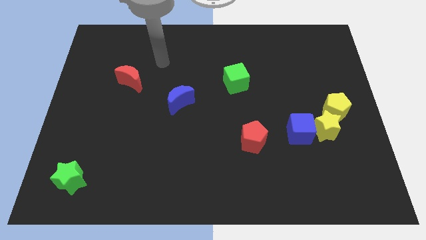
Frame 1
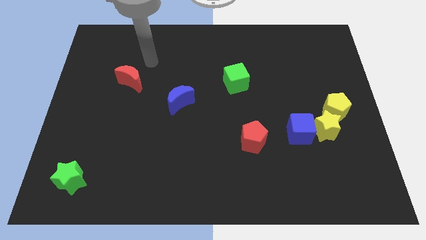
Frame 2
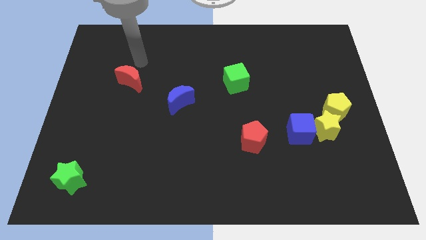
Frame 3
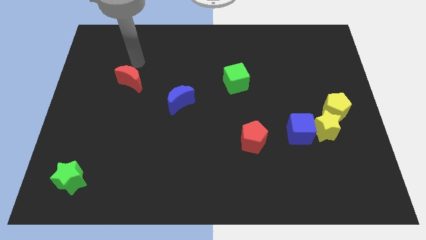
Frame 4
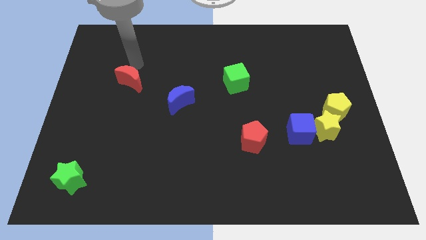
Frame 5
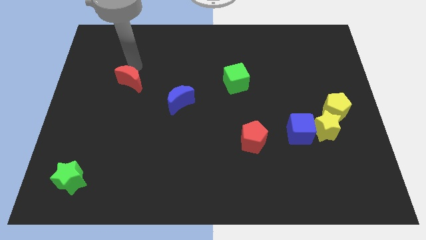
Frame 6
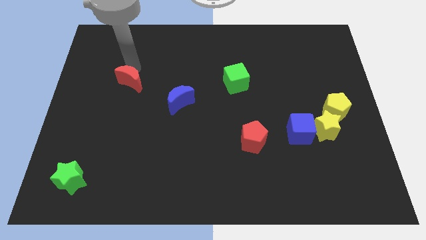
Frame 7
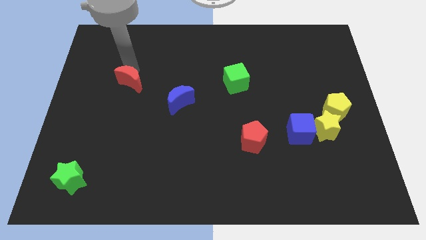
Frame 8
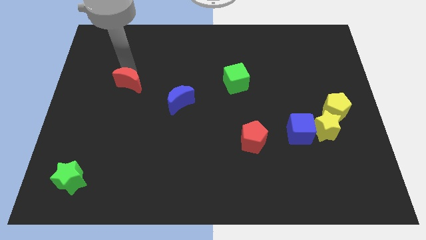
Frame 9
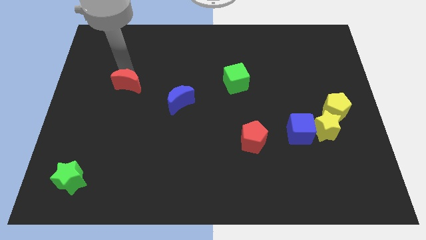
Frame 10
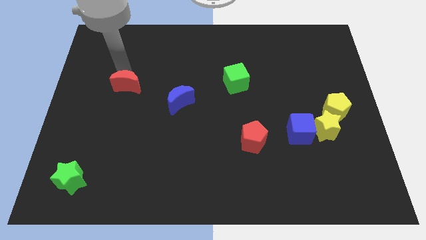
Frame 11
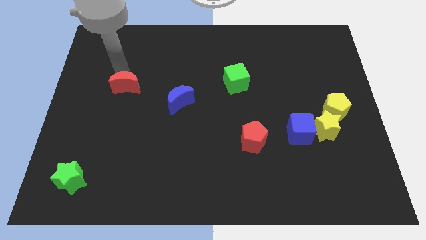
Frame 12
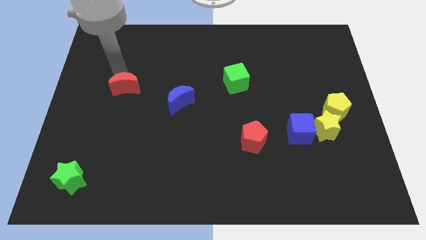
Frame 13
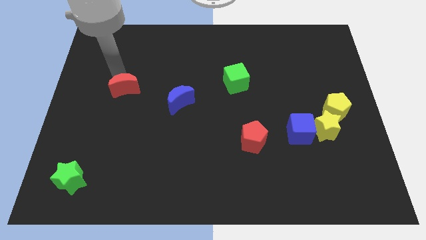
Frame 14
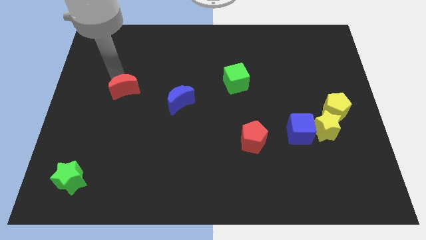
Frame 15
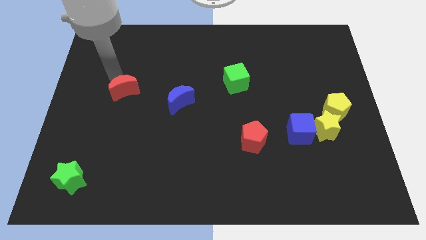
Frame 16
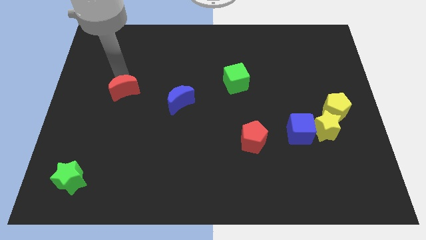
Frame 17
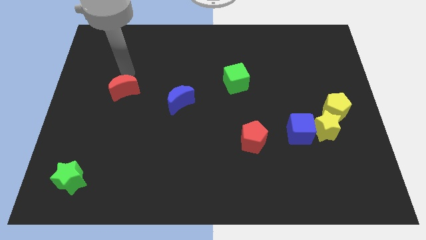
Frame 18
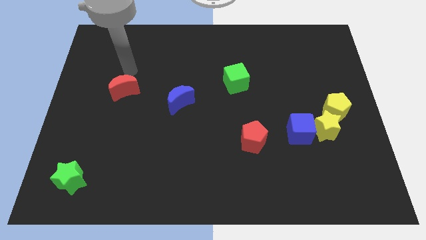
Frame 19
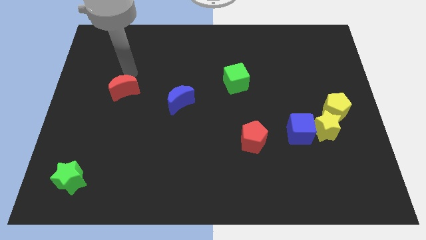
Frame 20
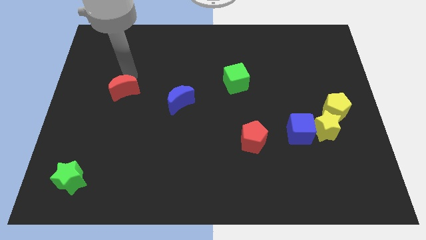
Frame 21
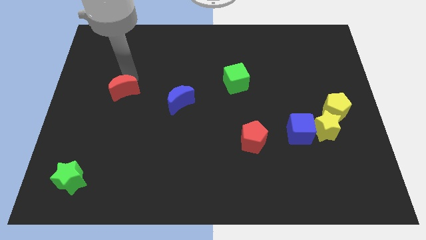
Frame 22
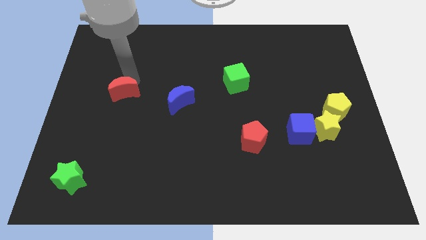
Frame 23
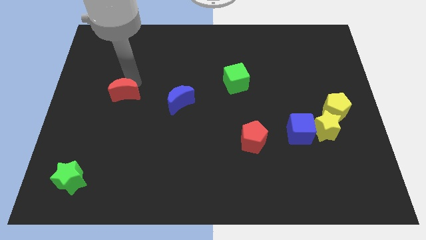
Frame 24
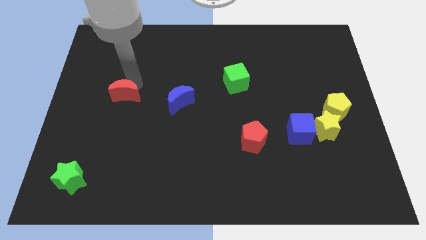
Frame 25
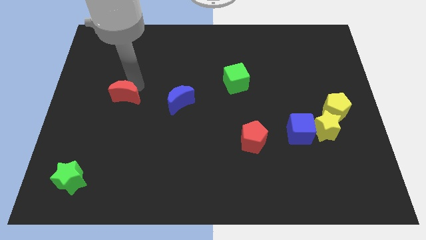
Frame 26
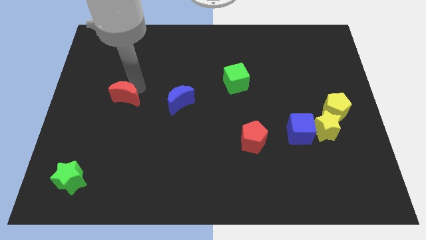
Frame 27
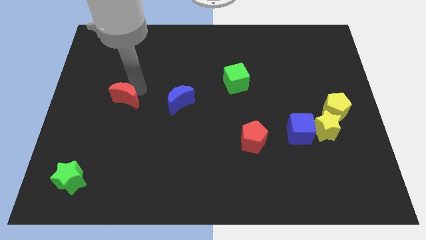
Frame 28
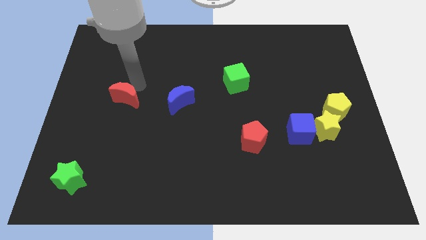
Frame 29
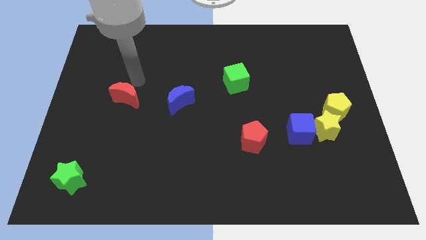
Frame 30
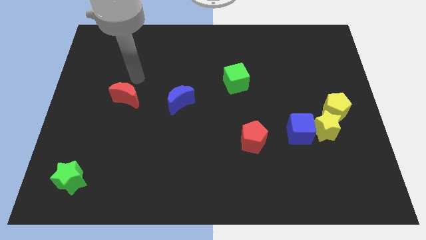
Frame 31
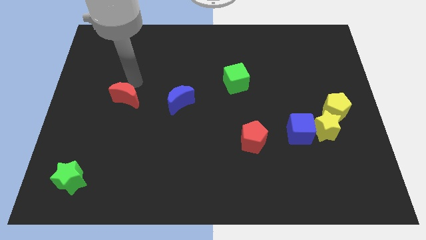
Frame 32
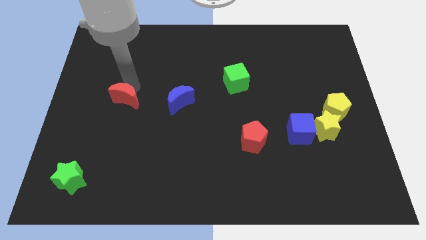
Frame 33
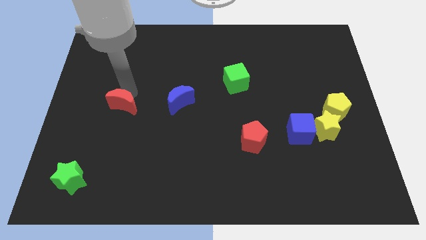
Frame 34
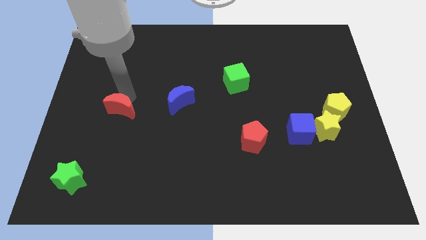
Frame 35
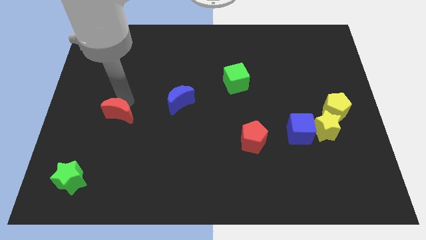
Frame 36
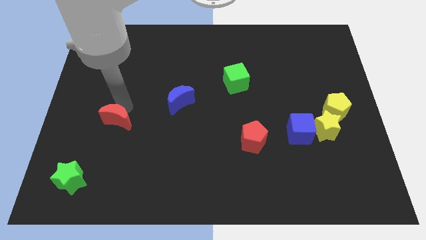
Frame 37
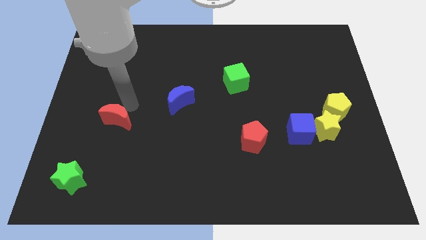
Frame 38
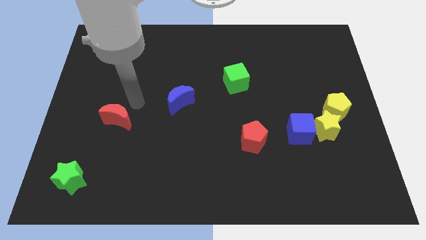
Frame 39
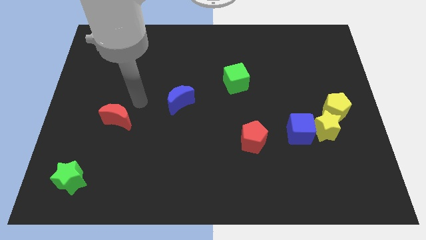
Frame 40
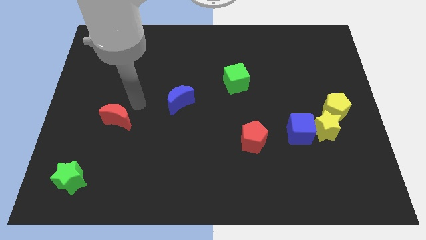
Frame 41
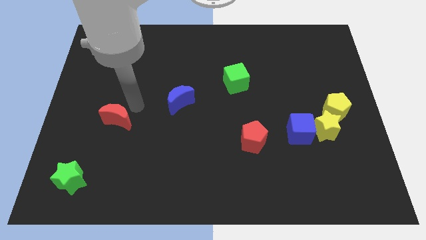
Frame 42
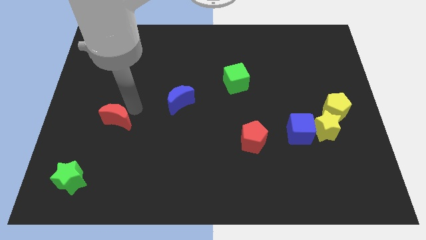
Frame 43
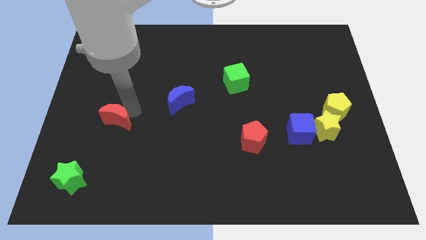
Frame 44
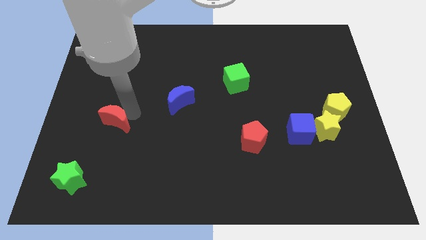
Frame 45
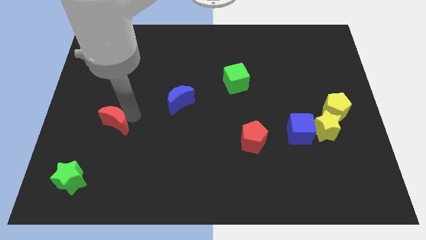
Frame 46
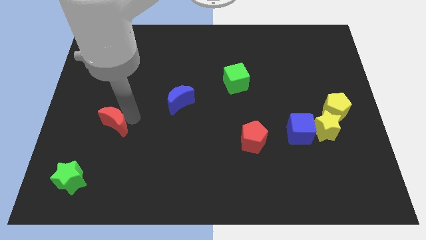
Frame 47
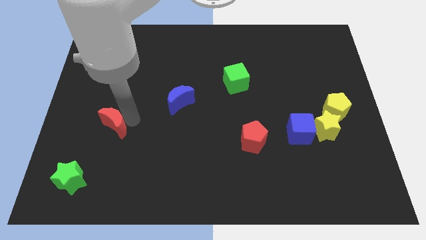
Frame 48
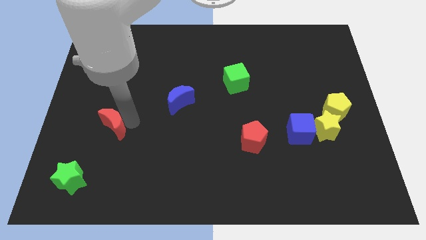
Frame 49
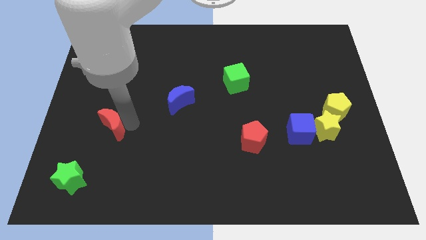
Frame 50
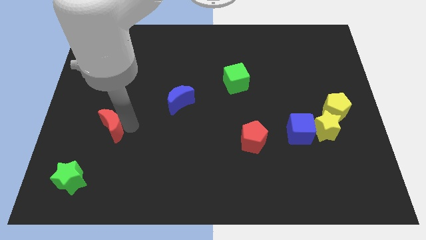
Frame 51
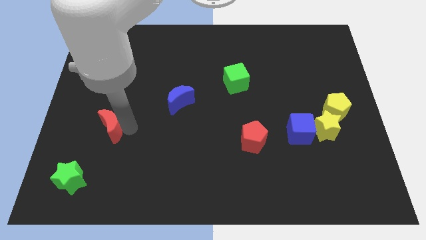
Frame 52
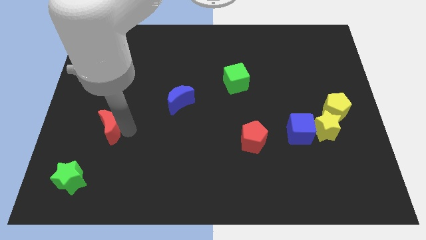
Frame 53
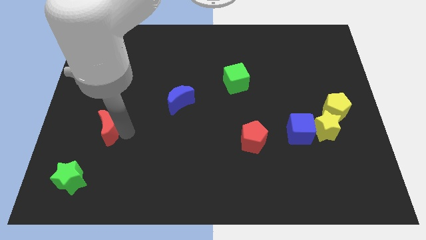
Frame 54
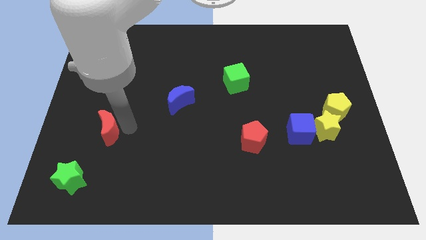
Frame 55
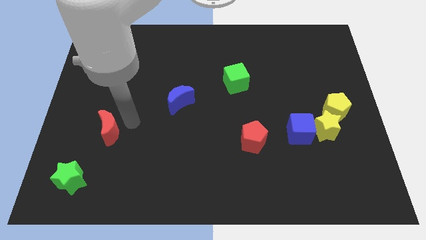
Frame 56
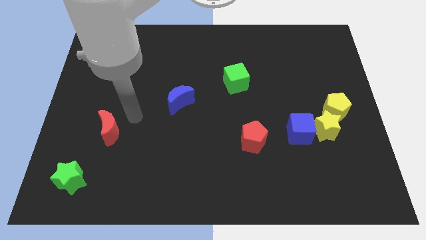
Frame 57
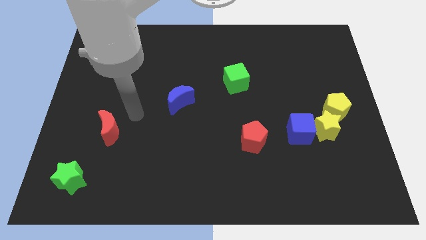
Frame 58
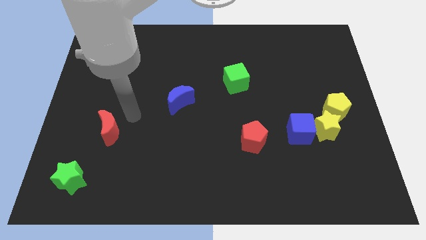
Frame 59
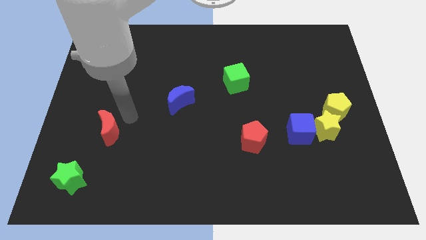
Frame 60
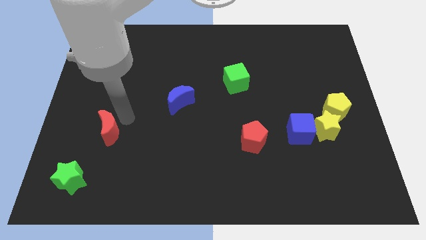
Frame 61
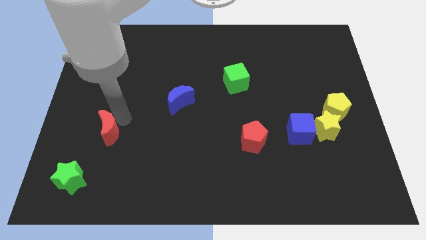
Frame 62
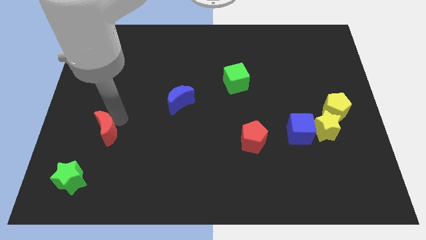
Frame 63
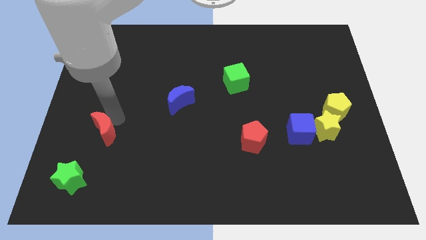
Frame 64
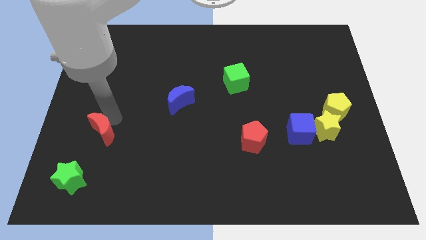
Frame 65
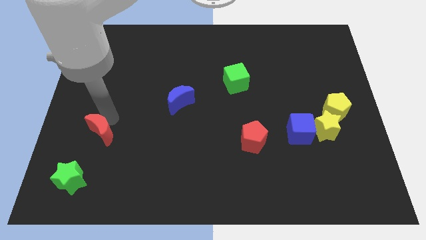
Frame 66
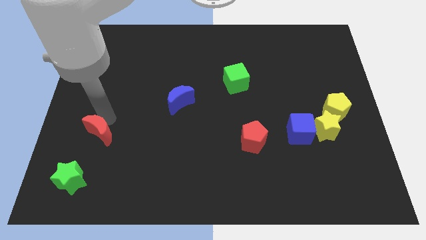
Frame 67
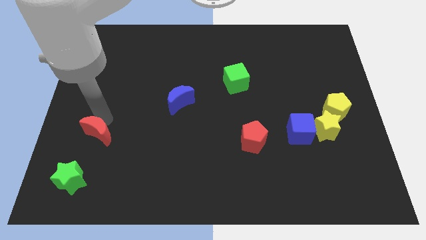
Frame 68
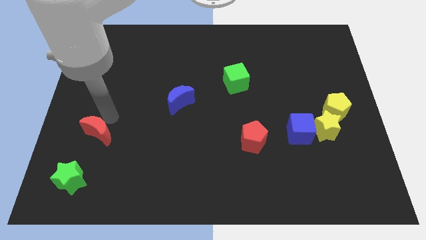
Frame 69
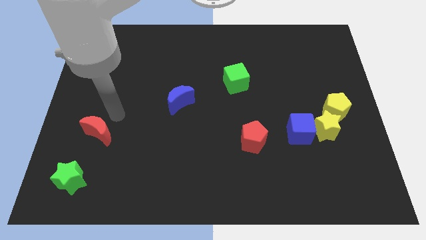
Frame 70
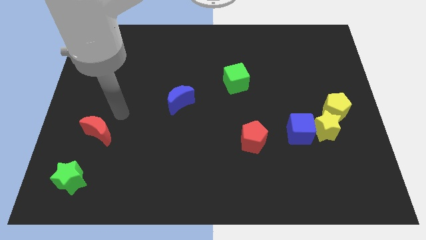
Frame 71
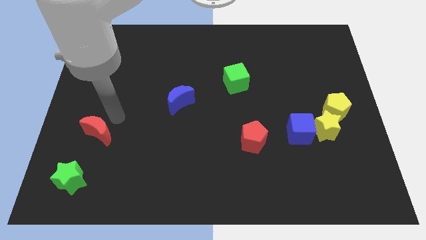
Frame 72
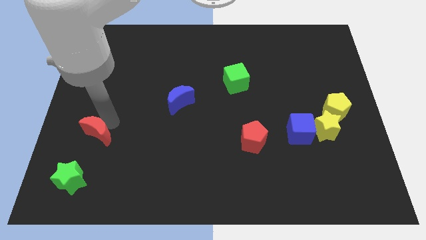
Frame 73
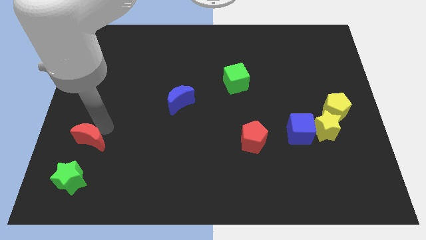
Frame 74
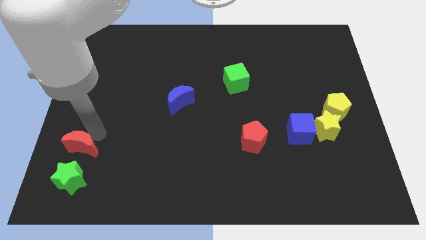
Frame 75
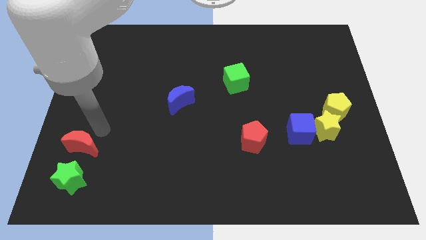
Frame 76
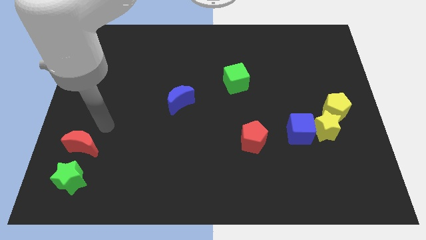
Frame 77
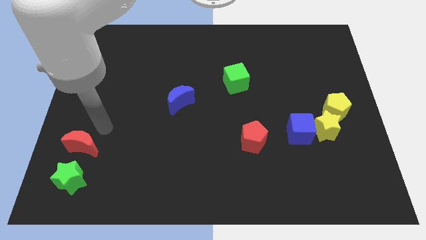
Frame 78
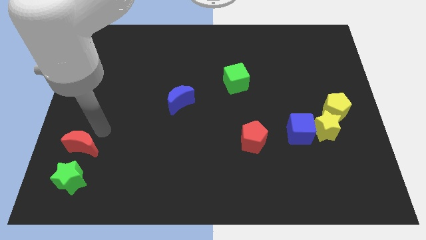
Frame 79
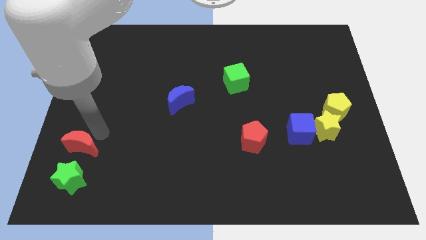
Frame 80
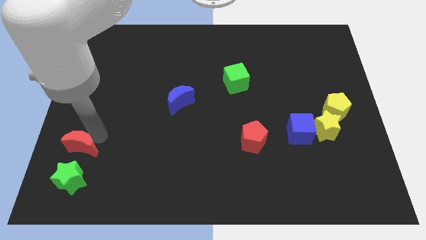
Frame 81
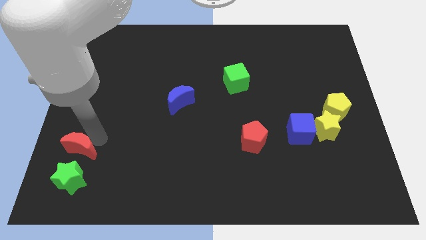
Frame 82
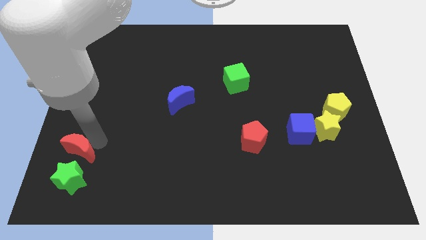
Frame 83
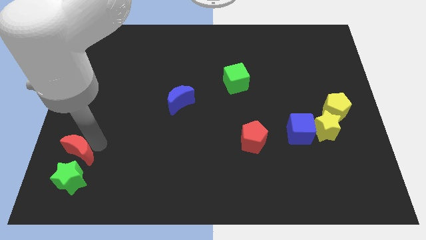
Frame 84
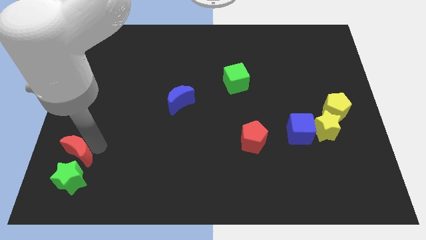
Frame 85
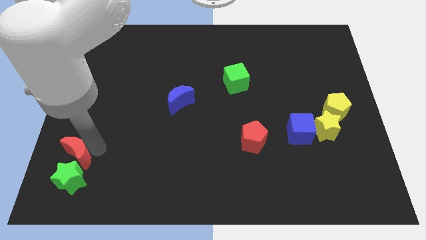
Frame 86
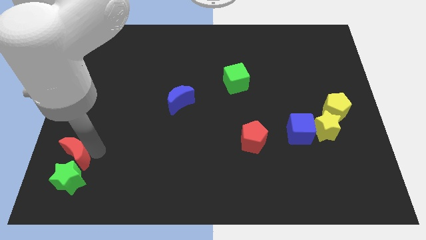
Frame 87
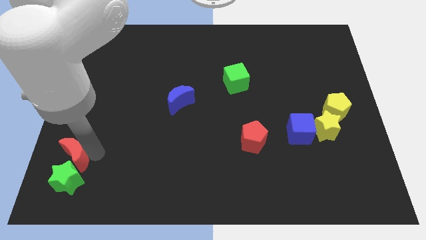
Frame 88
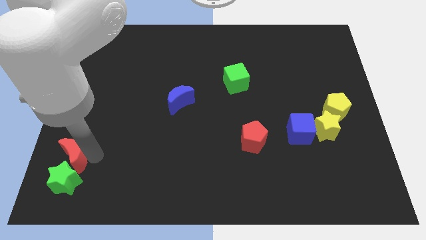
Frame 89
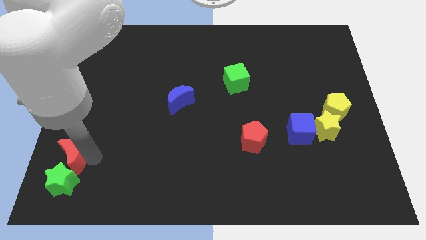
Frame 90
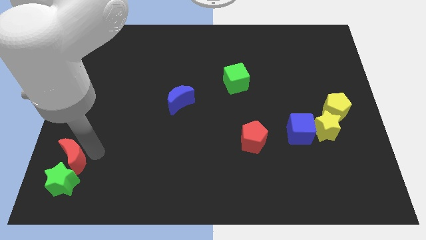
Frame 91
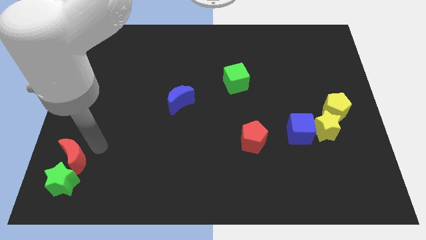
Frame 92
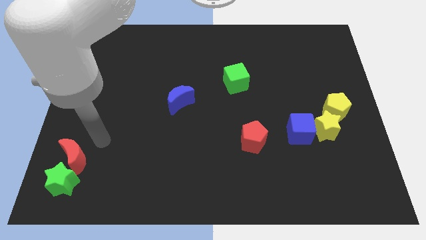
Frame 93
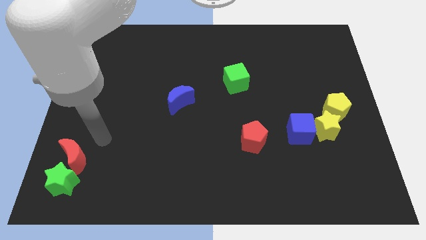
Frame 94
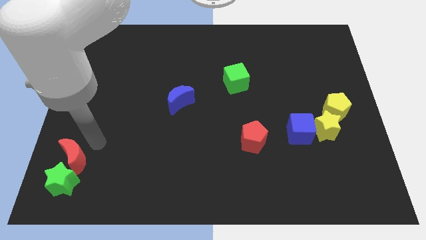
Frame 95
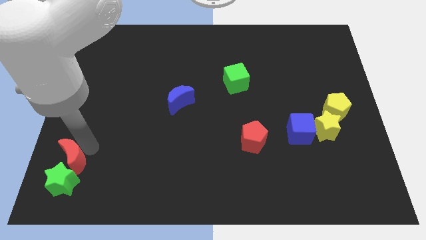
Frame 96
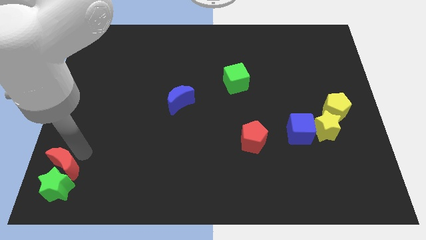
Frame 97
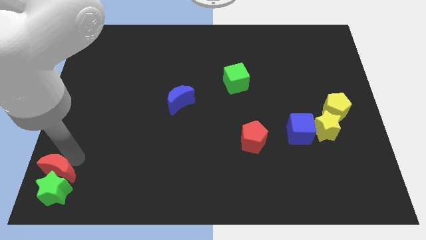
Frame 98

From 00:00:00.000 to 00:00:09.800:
slide the red moon to the bottom left
